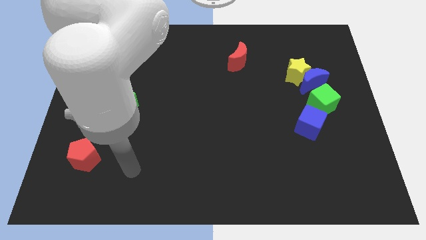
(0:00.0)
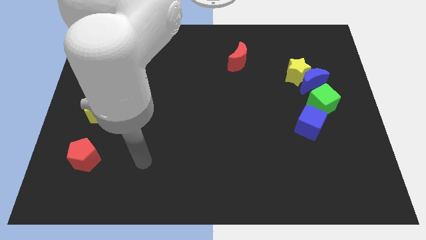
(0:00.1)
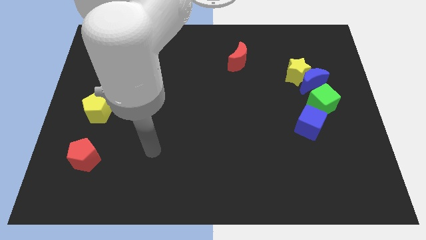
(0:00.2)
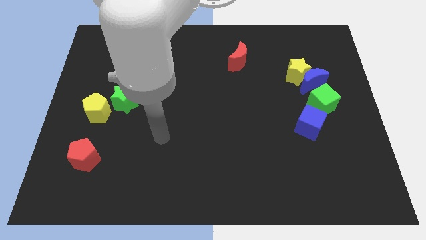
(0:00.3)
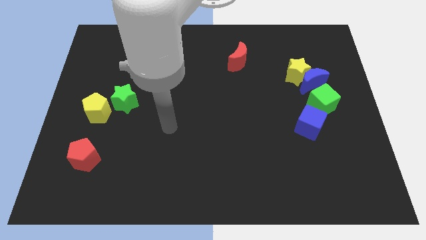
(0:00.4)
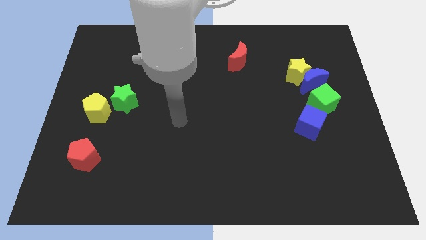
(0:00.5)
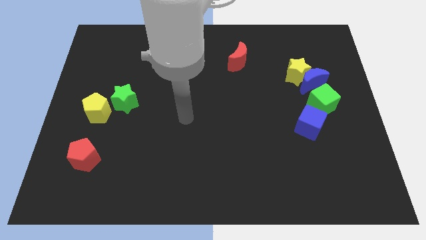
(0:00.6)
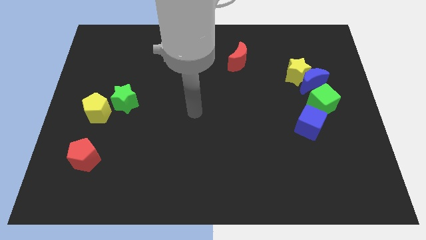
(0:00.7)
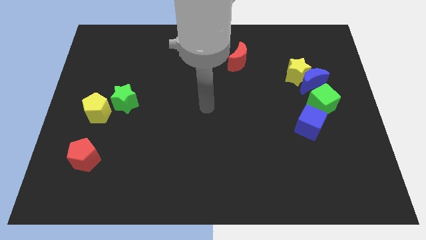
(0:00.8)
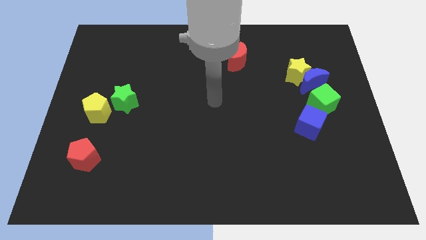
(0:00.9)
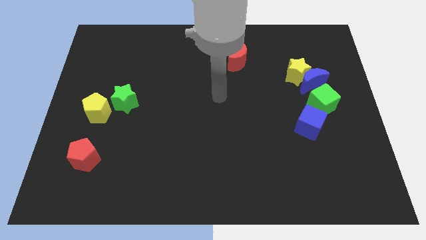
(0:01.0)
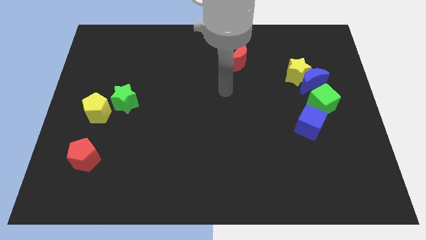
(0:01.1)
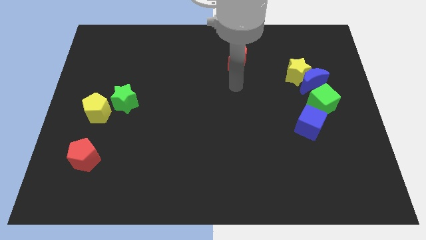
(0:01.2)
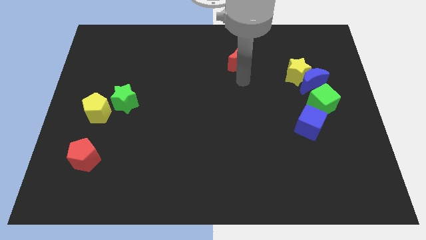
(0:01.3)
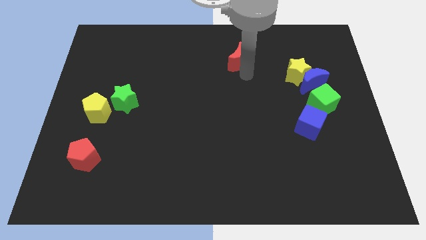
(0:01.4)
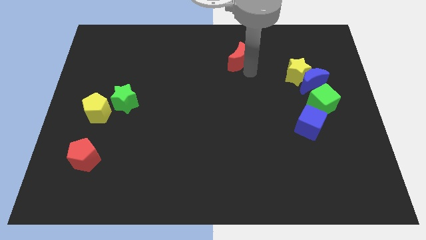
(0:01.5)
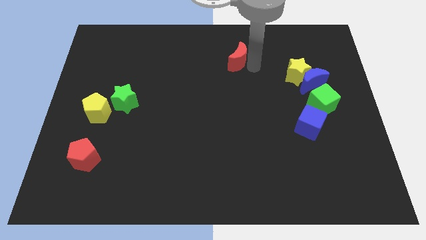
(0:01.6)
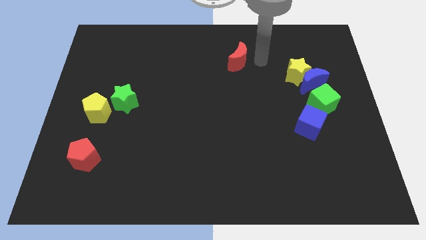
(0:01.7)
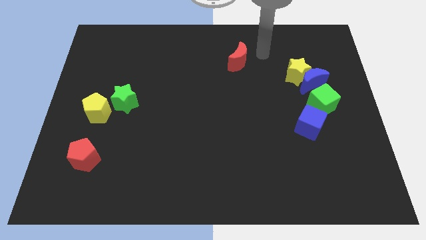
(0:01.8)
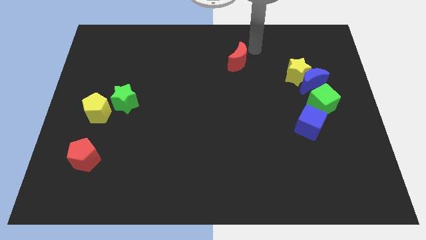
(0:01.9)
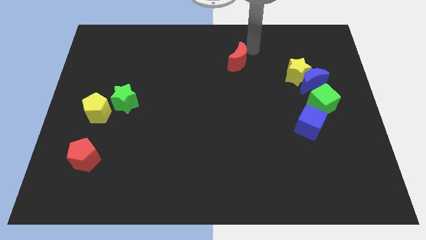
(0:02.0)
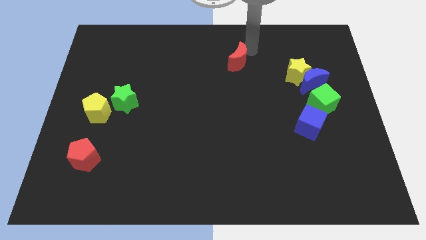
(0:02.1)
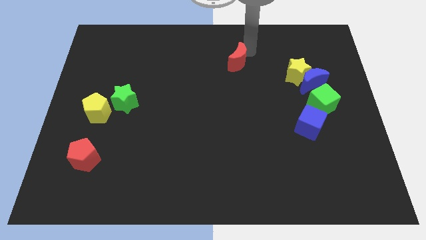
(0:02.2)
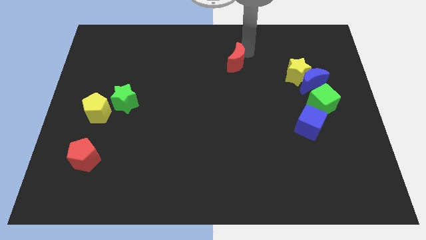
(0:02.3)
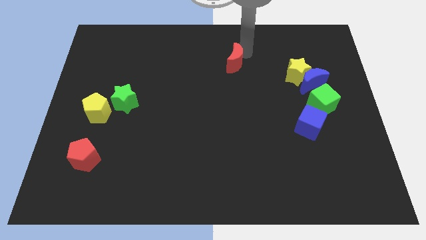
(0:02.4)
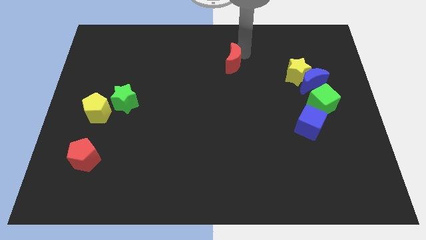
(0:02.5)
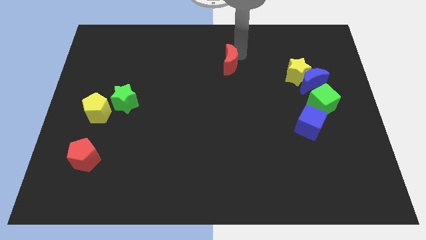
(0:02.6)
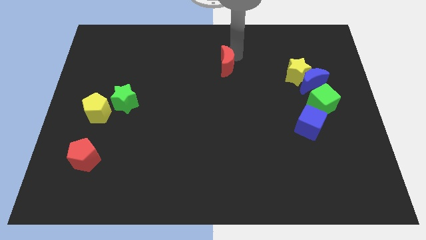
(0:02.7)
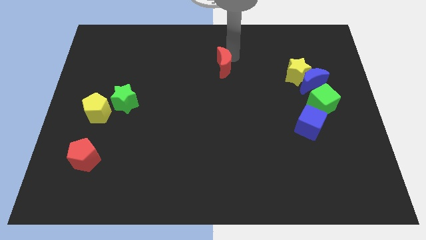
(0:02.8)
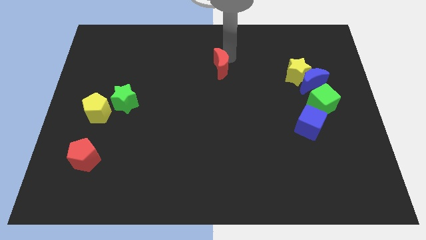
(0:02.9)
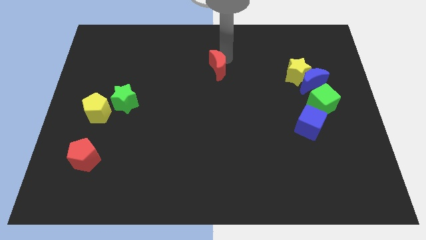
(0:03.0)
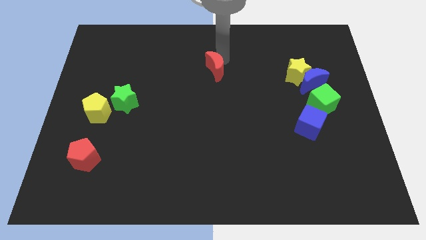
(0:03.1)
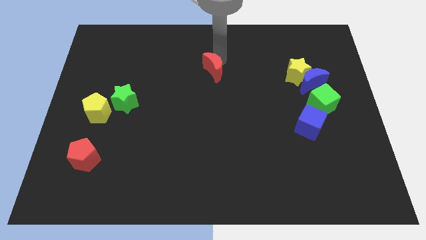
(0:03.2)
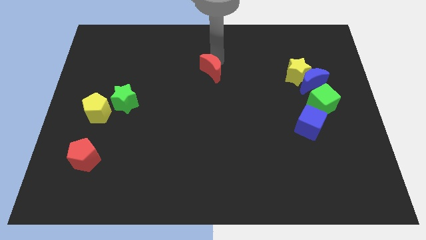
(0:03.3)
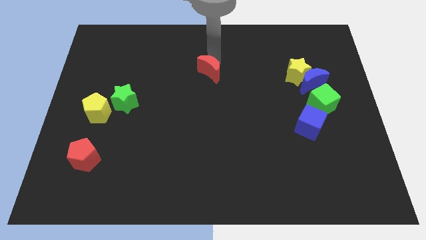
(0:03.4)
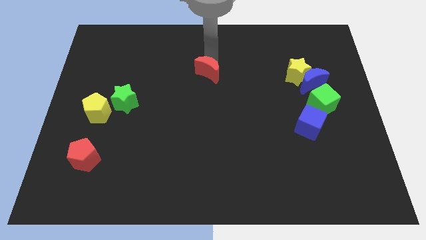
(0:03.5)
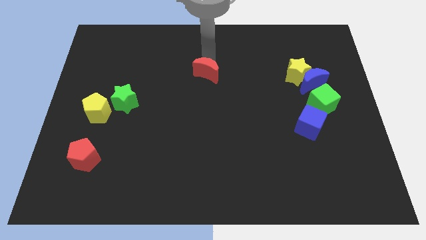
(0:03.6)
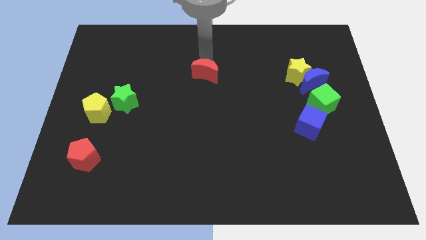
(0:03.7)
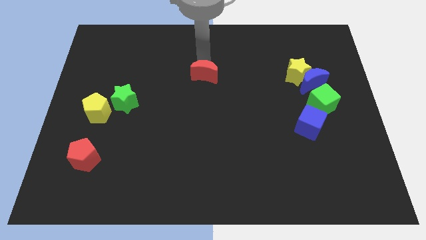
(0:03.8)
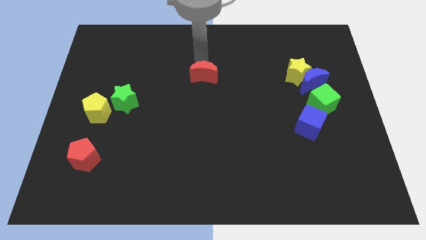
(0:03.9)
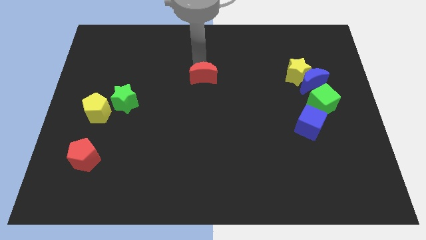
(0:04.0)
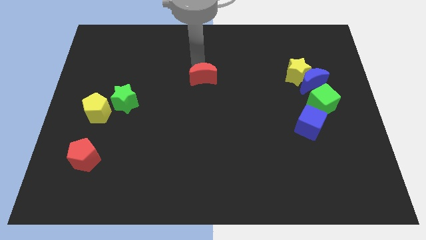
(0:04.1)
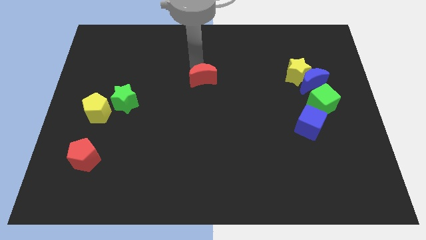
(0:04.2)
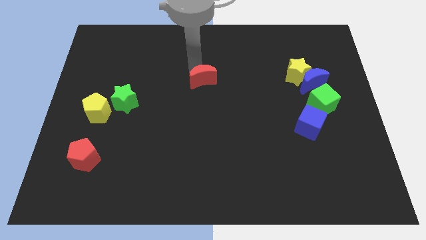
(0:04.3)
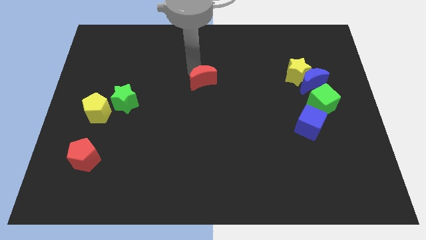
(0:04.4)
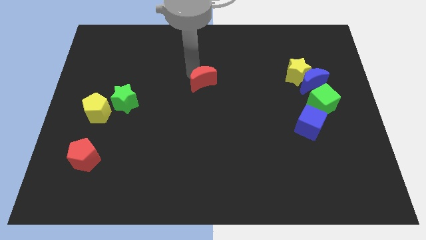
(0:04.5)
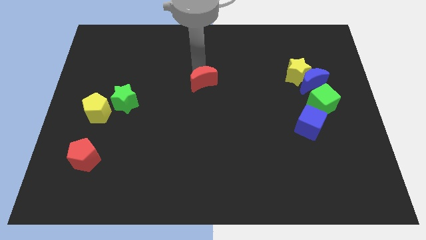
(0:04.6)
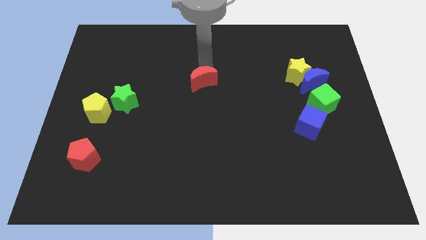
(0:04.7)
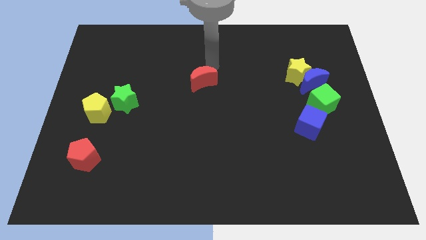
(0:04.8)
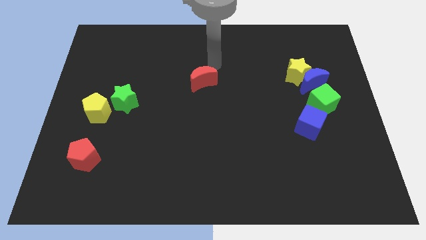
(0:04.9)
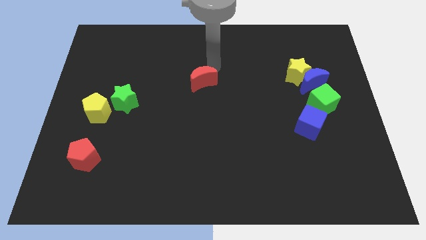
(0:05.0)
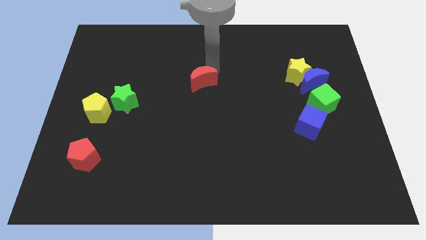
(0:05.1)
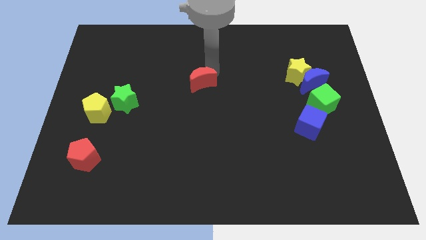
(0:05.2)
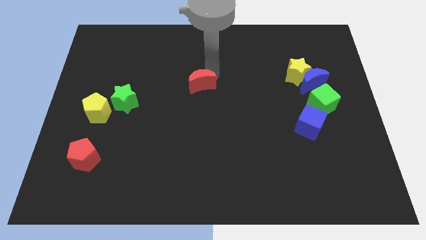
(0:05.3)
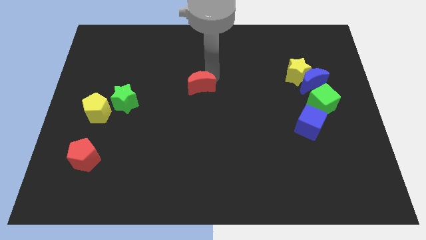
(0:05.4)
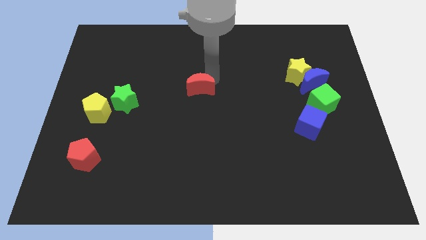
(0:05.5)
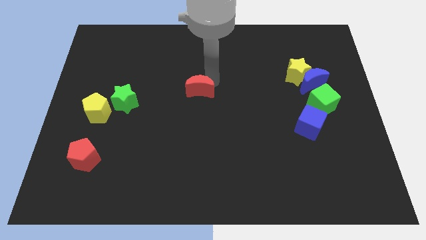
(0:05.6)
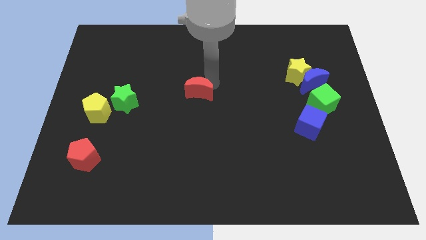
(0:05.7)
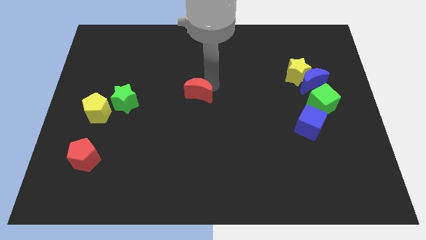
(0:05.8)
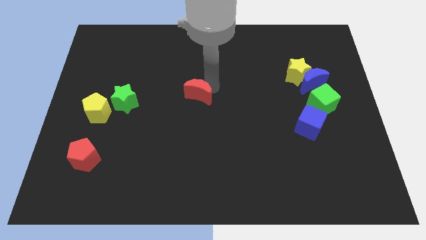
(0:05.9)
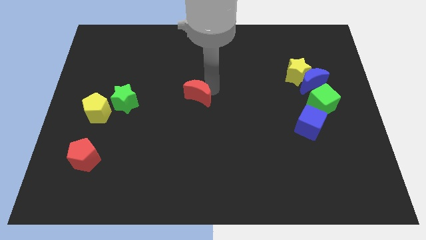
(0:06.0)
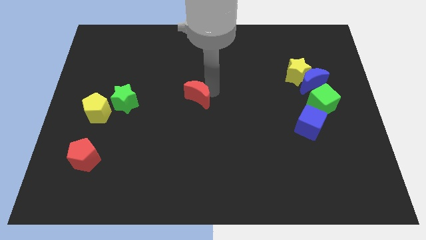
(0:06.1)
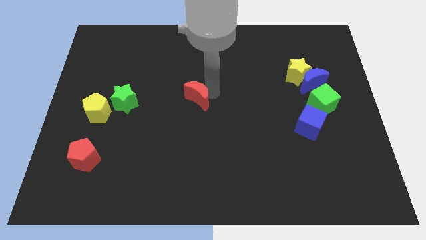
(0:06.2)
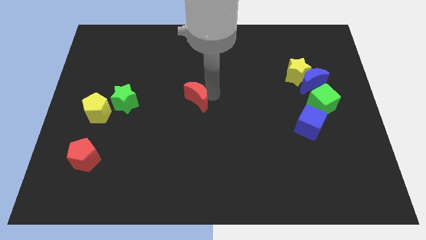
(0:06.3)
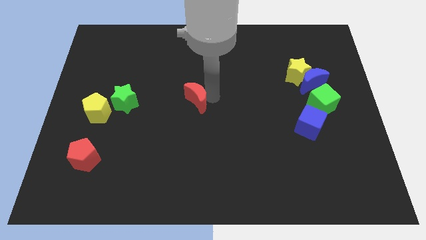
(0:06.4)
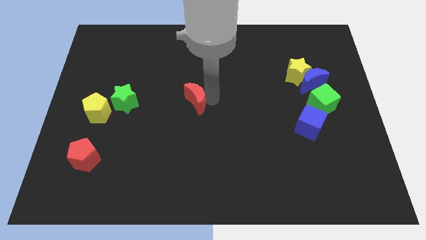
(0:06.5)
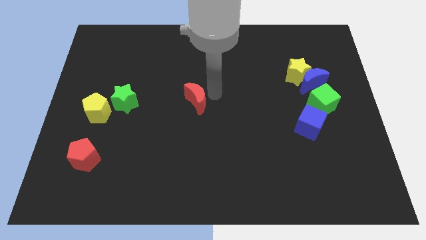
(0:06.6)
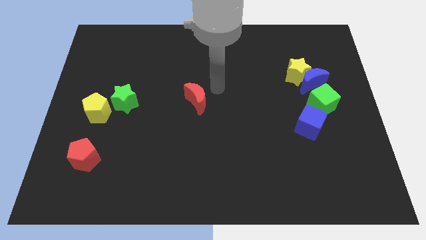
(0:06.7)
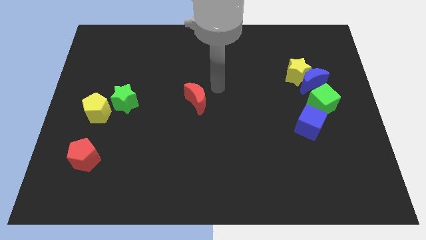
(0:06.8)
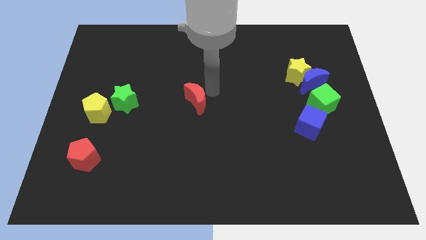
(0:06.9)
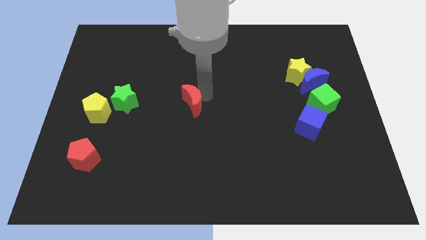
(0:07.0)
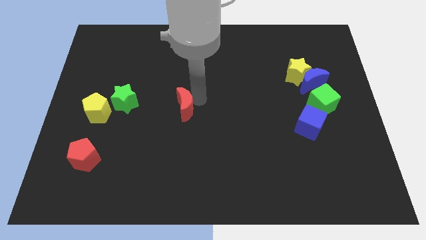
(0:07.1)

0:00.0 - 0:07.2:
move the red moon down and to the left

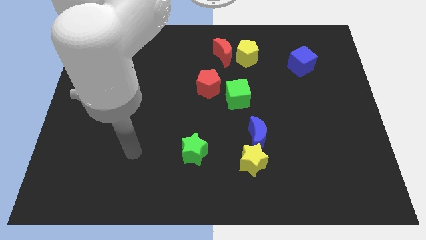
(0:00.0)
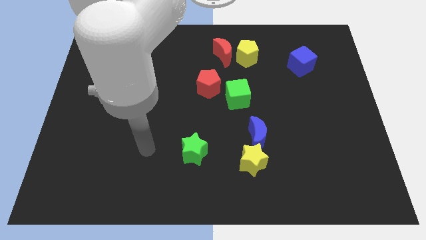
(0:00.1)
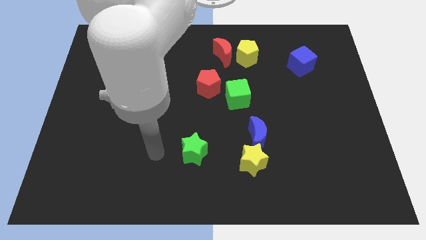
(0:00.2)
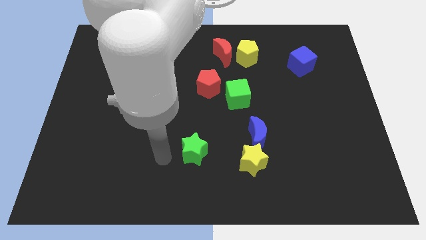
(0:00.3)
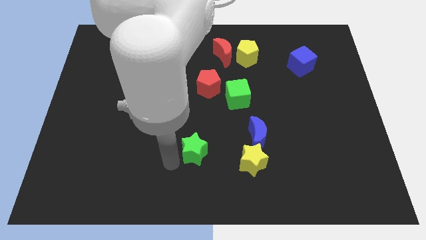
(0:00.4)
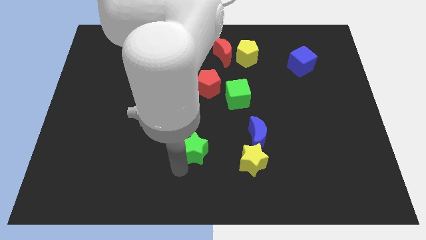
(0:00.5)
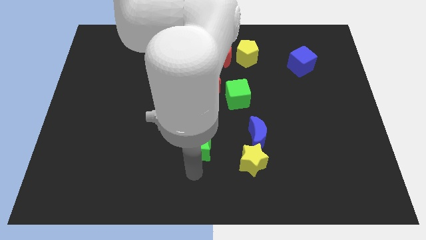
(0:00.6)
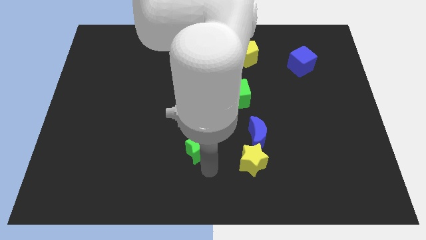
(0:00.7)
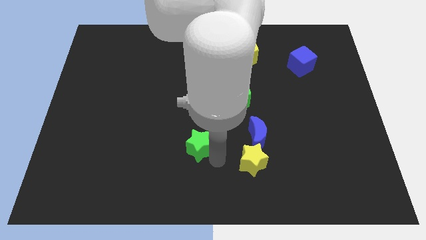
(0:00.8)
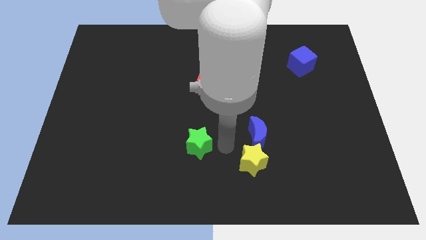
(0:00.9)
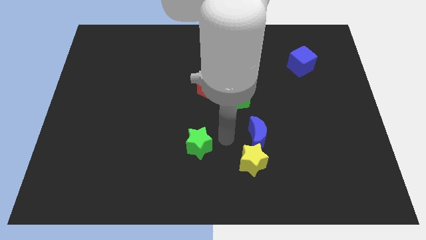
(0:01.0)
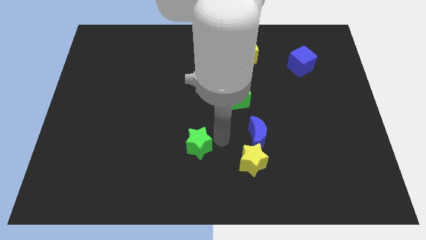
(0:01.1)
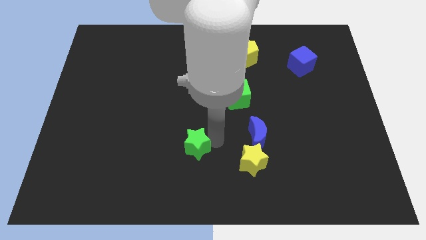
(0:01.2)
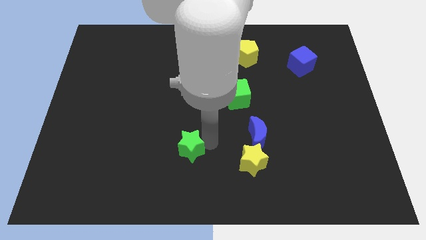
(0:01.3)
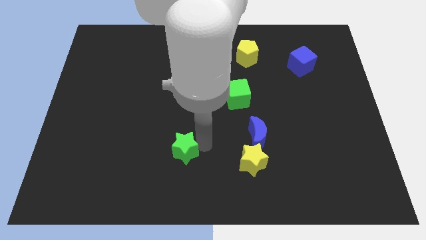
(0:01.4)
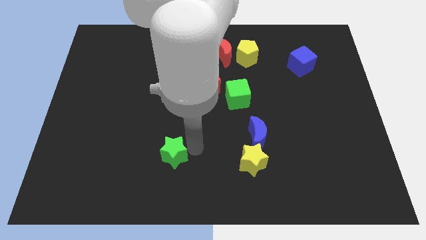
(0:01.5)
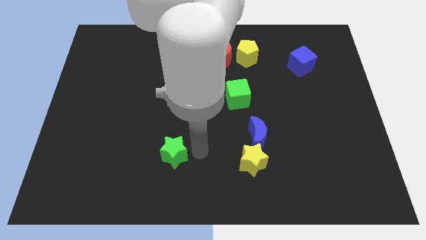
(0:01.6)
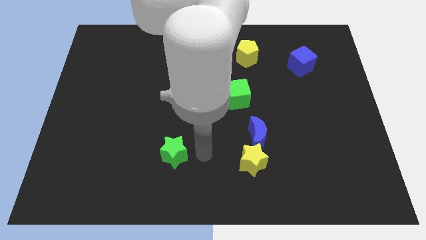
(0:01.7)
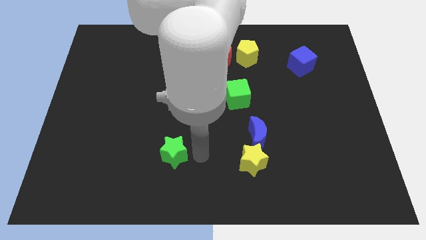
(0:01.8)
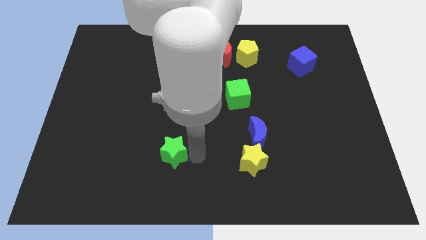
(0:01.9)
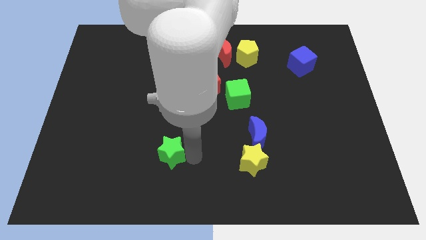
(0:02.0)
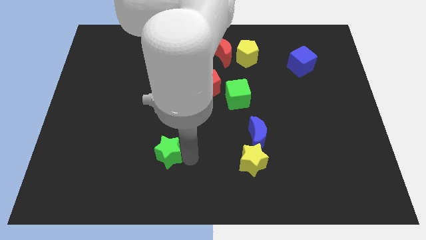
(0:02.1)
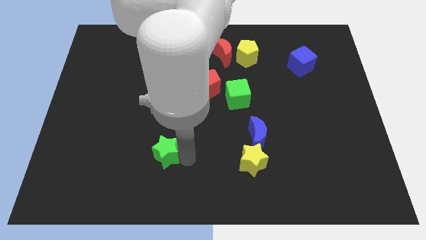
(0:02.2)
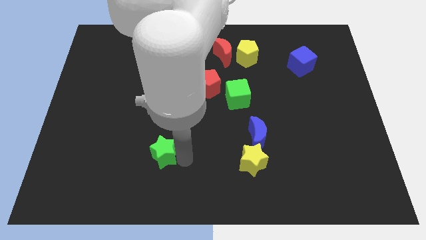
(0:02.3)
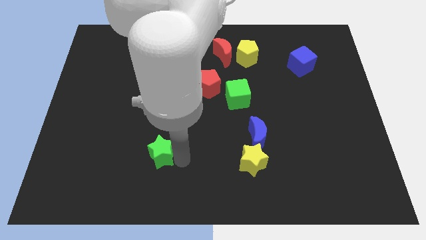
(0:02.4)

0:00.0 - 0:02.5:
move the green star left a little
